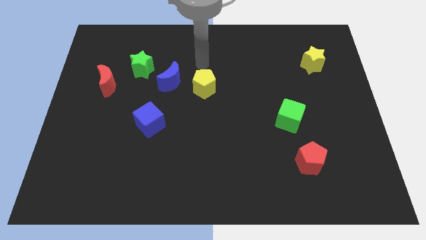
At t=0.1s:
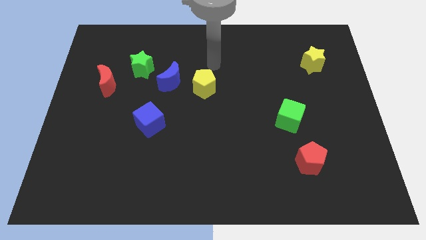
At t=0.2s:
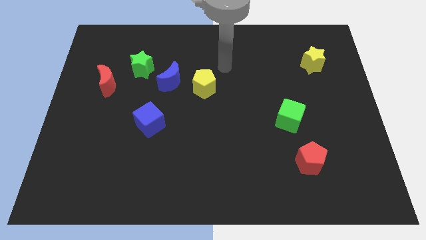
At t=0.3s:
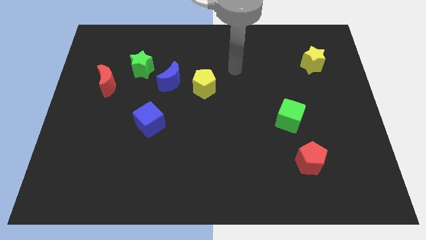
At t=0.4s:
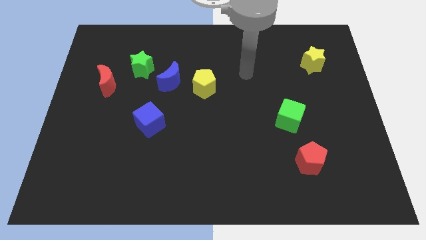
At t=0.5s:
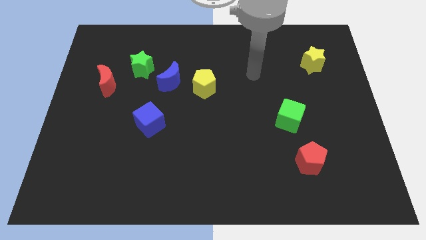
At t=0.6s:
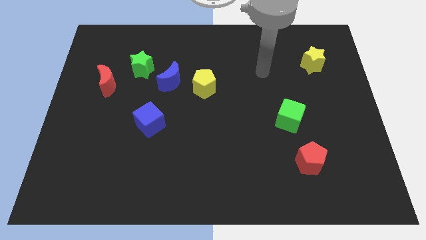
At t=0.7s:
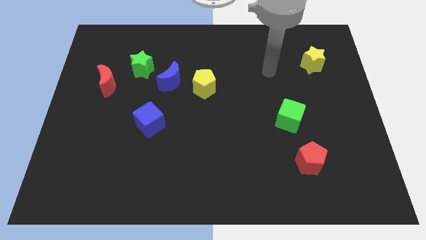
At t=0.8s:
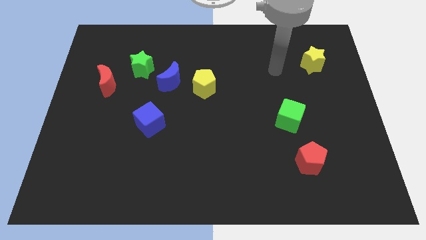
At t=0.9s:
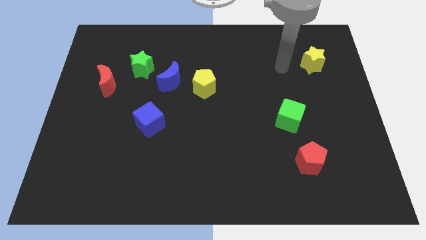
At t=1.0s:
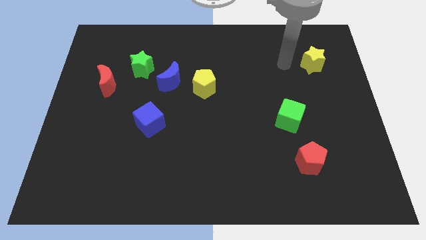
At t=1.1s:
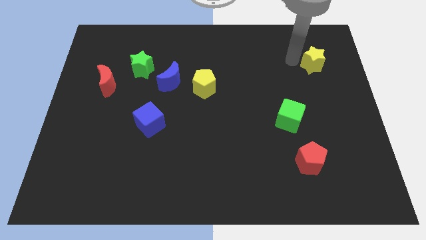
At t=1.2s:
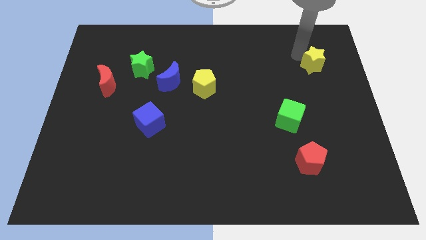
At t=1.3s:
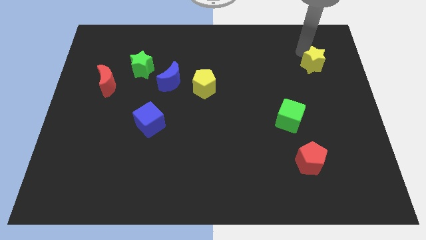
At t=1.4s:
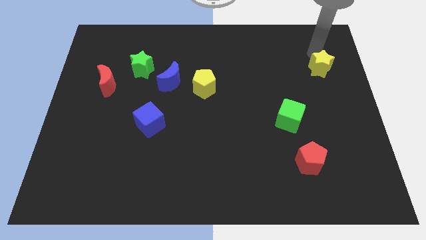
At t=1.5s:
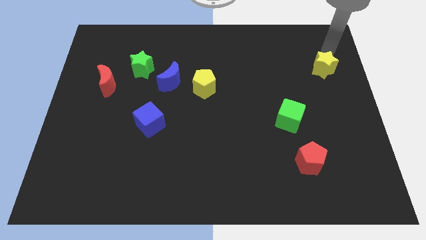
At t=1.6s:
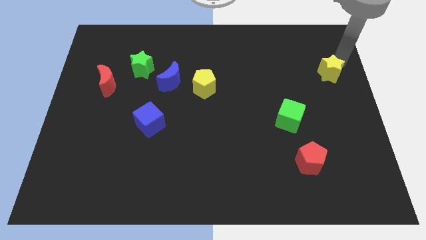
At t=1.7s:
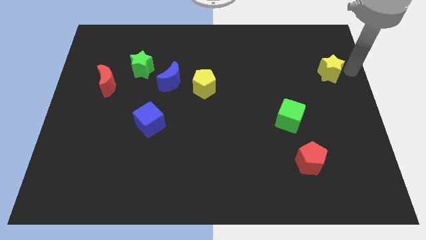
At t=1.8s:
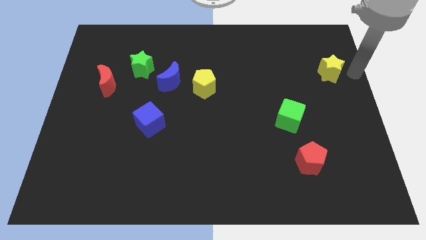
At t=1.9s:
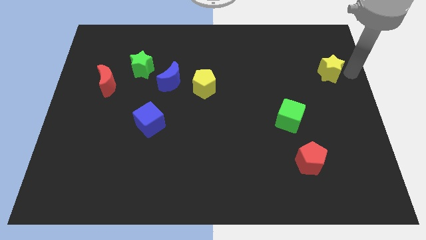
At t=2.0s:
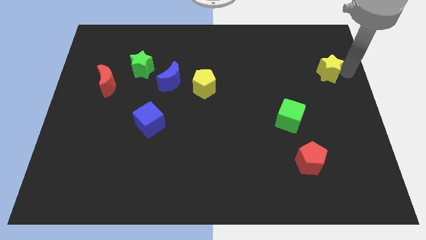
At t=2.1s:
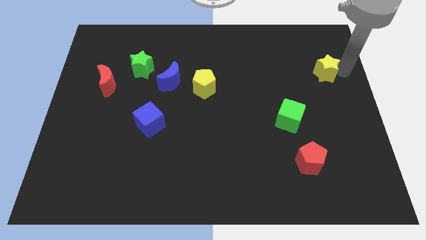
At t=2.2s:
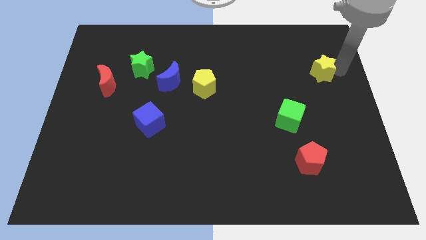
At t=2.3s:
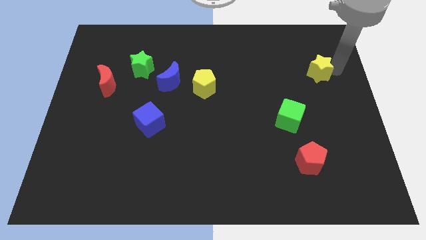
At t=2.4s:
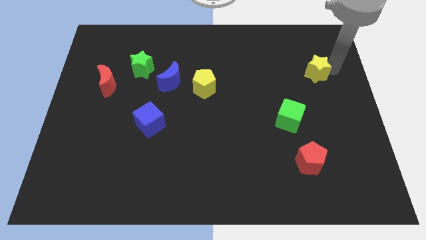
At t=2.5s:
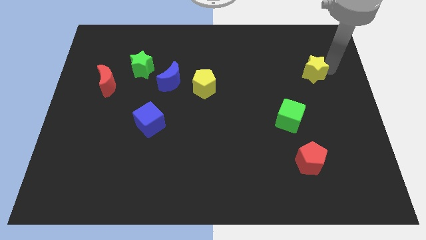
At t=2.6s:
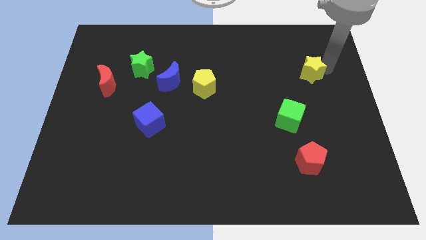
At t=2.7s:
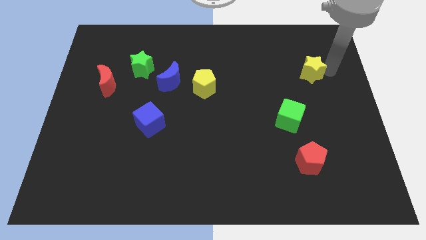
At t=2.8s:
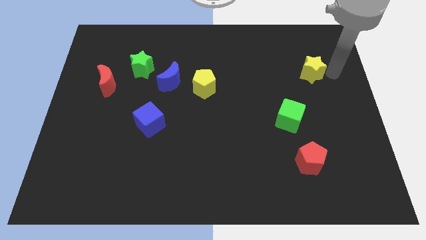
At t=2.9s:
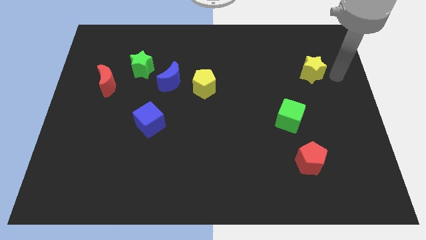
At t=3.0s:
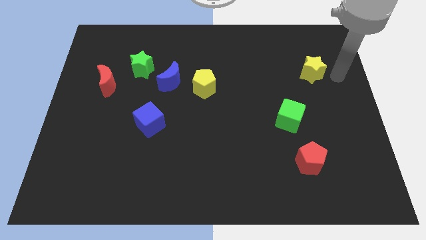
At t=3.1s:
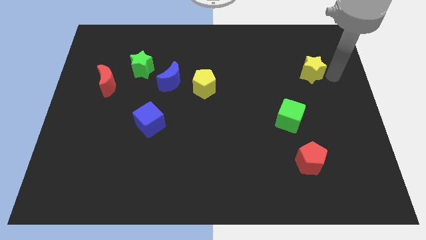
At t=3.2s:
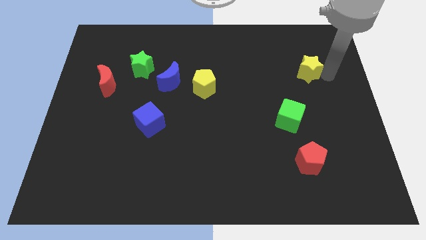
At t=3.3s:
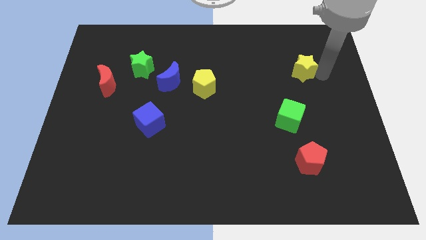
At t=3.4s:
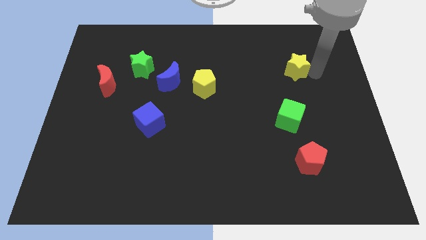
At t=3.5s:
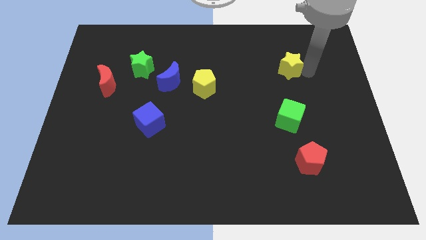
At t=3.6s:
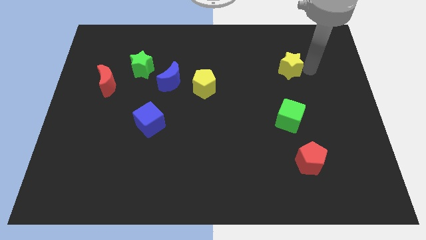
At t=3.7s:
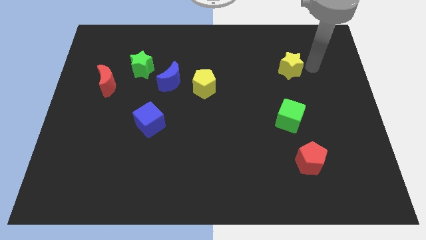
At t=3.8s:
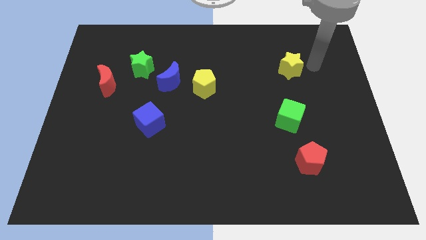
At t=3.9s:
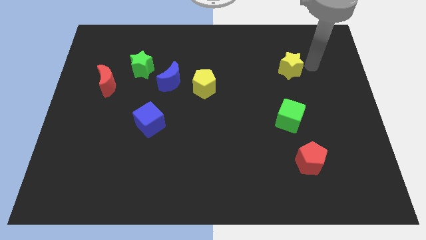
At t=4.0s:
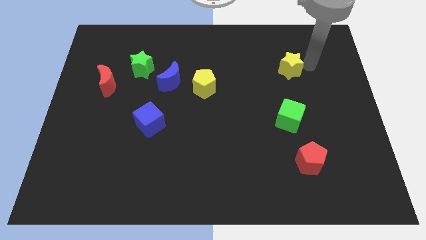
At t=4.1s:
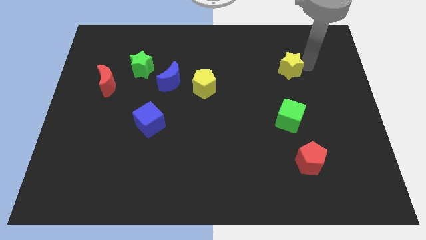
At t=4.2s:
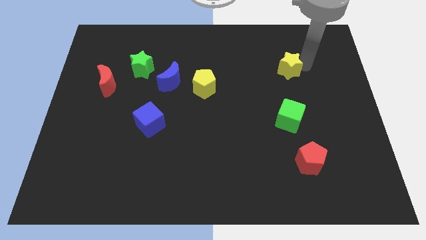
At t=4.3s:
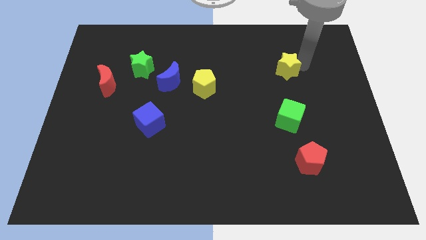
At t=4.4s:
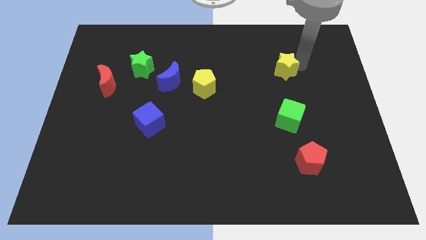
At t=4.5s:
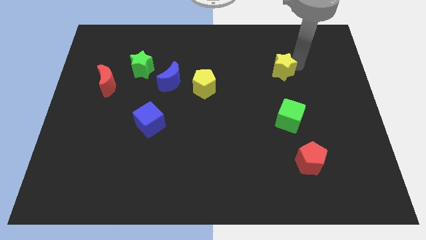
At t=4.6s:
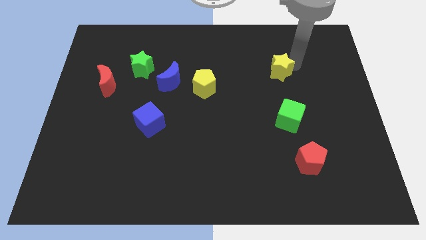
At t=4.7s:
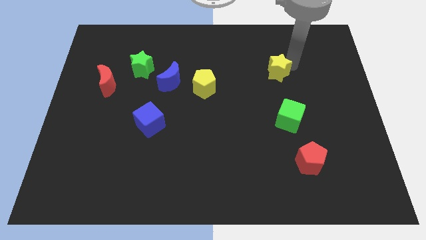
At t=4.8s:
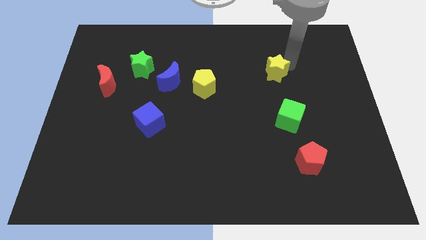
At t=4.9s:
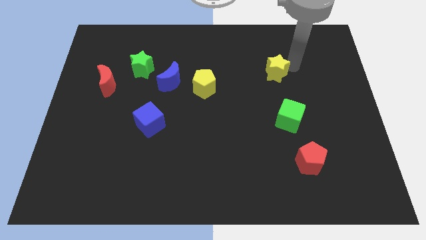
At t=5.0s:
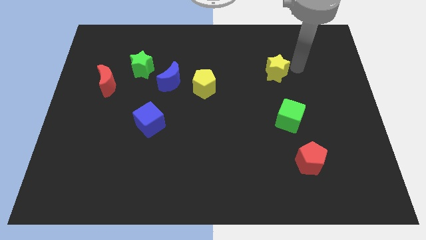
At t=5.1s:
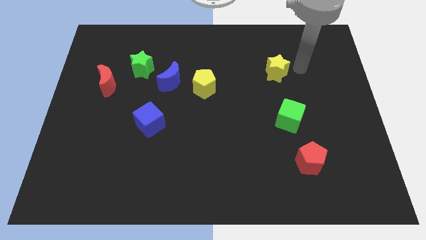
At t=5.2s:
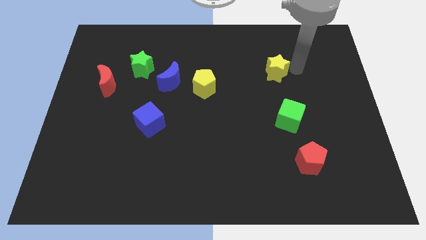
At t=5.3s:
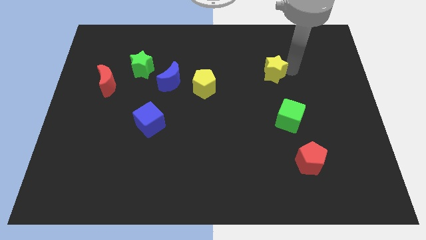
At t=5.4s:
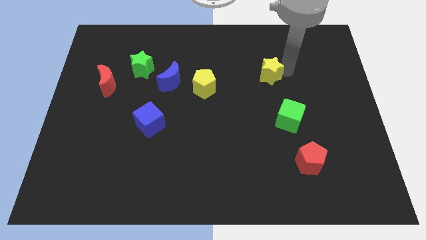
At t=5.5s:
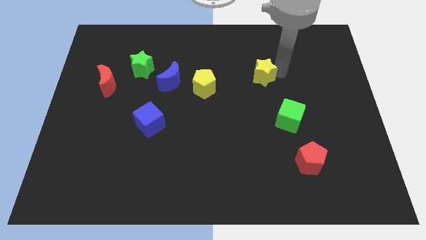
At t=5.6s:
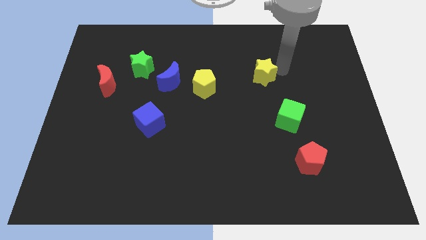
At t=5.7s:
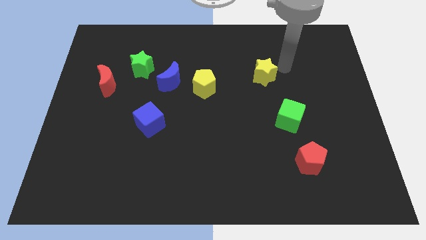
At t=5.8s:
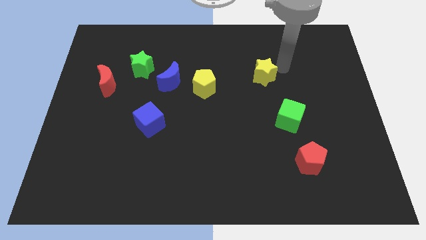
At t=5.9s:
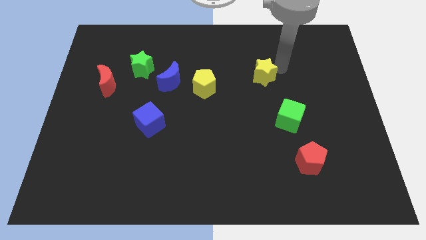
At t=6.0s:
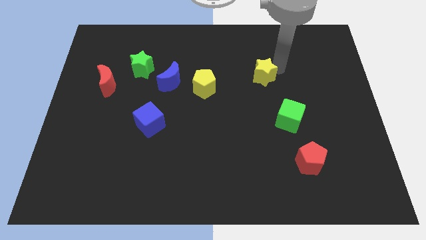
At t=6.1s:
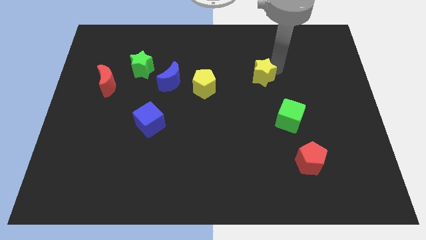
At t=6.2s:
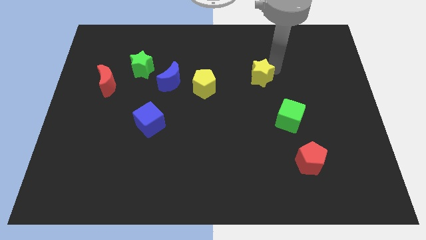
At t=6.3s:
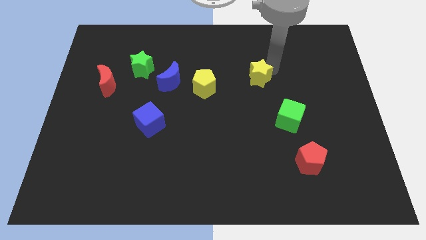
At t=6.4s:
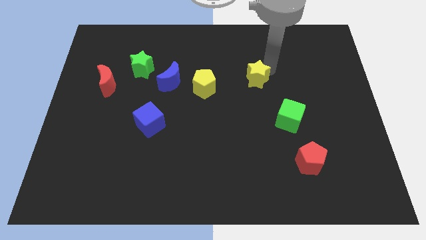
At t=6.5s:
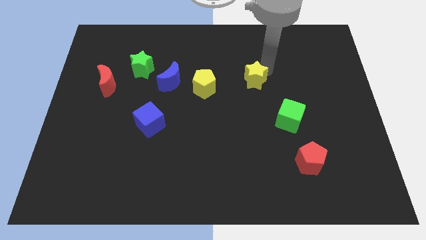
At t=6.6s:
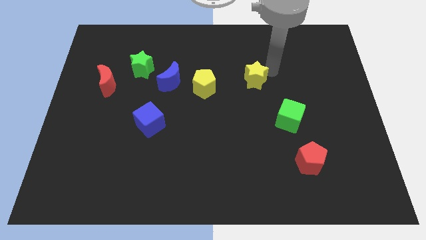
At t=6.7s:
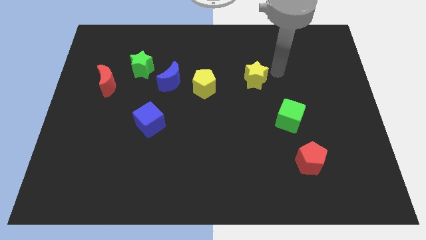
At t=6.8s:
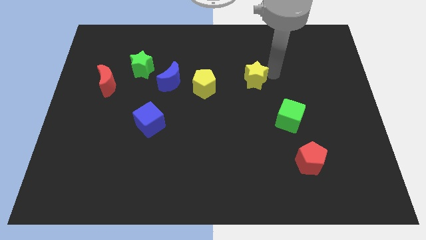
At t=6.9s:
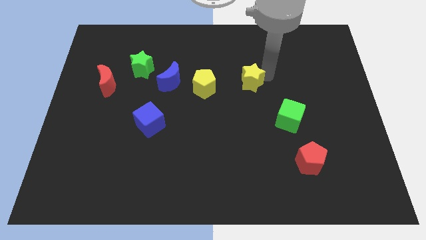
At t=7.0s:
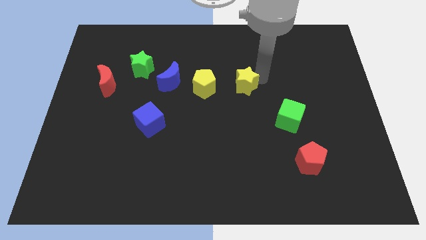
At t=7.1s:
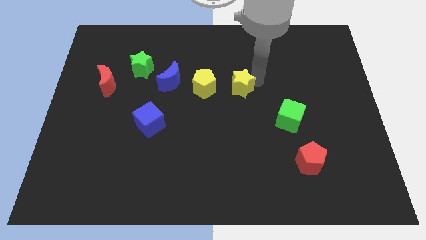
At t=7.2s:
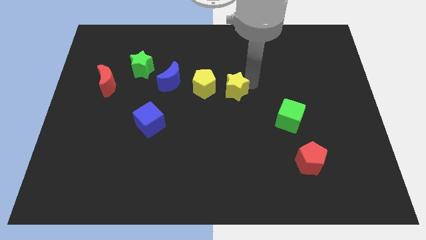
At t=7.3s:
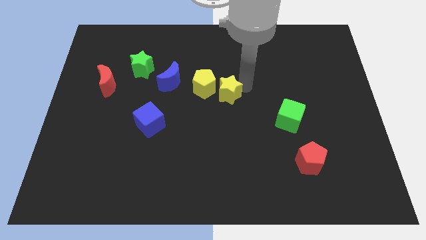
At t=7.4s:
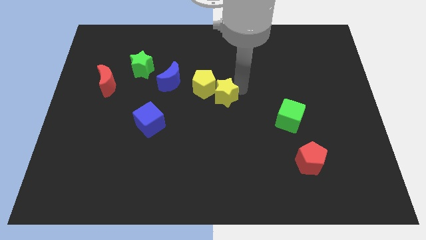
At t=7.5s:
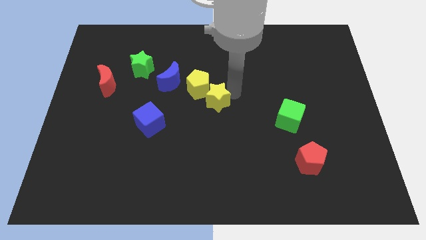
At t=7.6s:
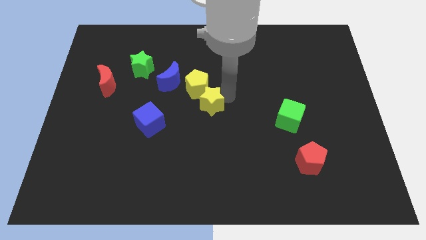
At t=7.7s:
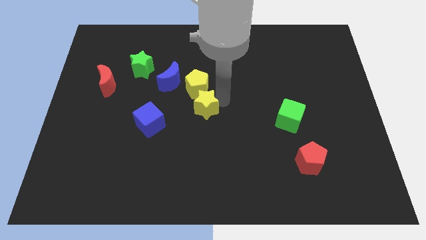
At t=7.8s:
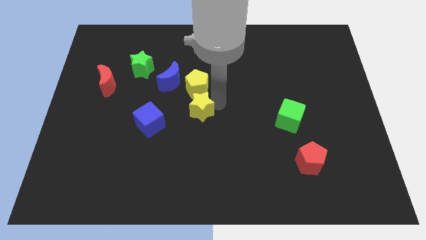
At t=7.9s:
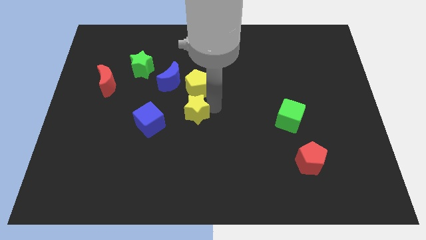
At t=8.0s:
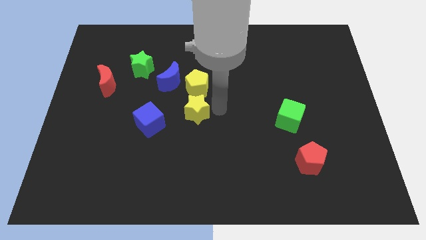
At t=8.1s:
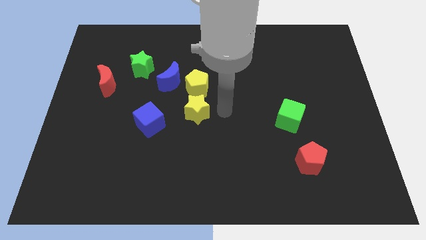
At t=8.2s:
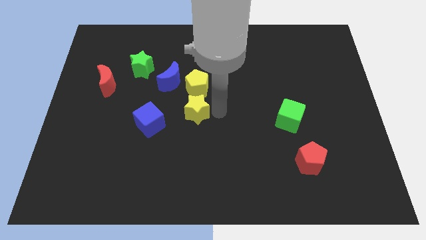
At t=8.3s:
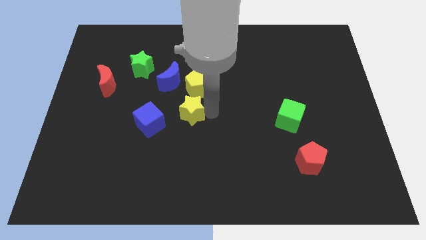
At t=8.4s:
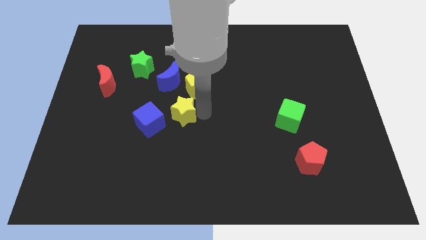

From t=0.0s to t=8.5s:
push the yellow star to the bottom of the blue moon
